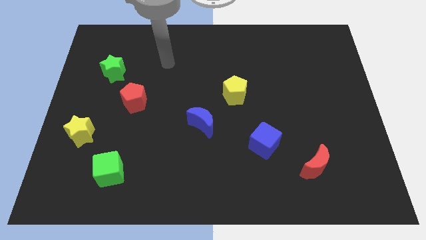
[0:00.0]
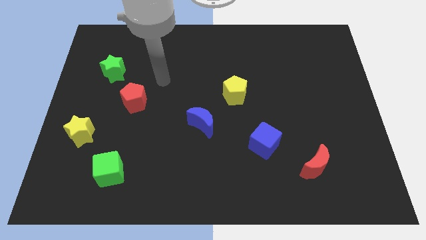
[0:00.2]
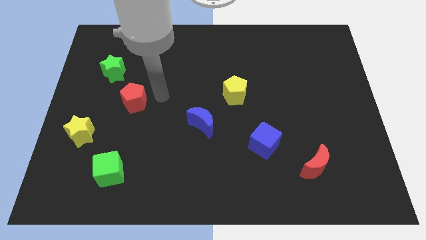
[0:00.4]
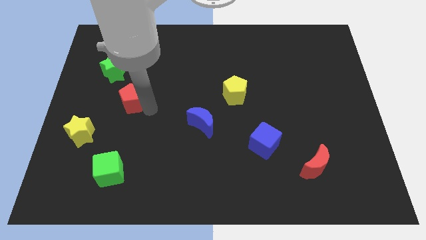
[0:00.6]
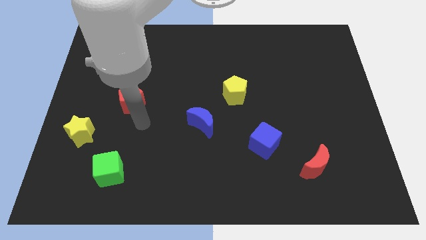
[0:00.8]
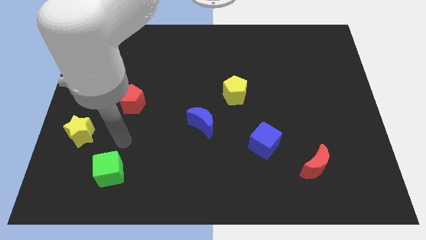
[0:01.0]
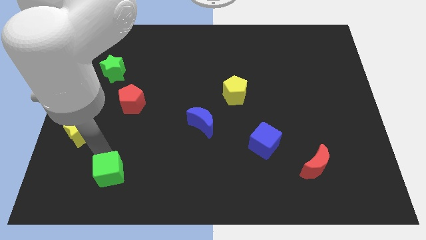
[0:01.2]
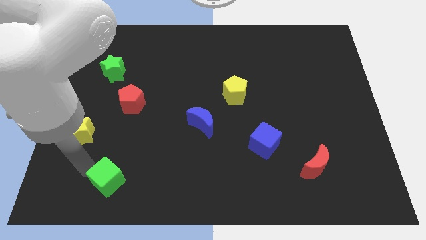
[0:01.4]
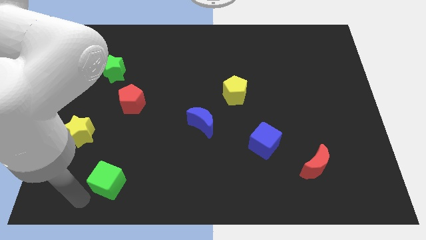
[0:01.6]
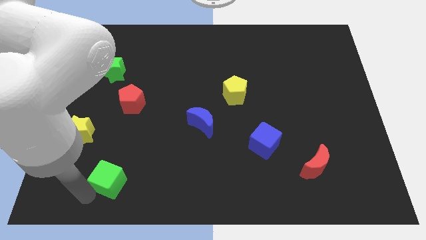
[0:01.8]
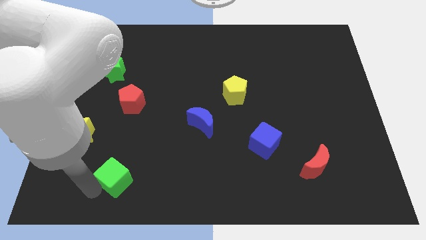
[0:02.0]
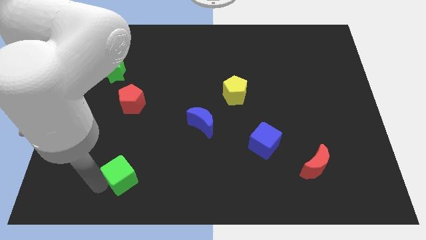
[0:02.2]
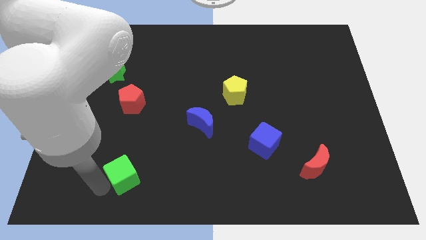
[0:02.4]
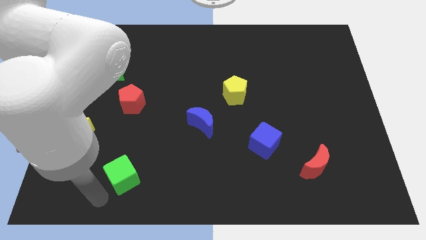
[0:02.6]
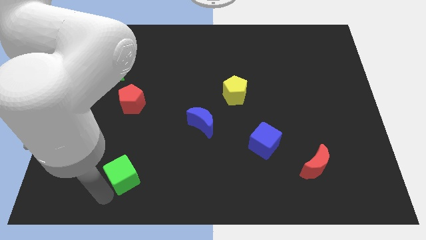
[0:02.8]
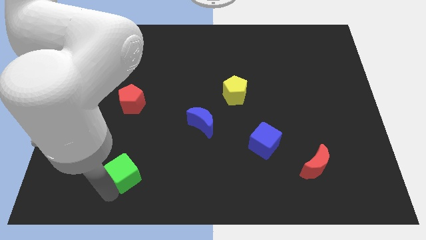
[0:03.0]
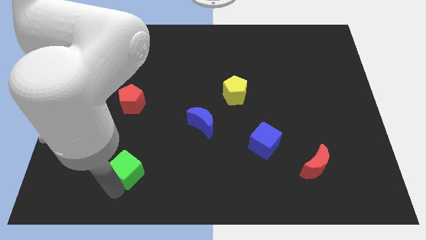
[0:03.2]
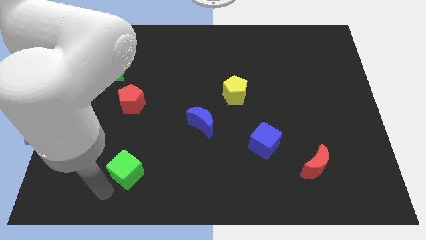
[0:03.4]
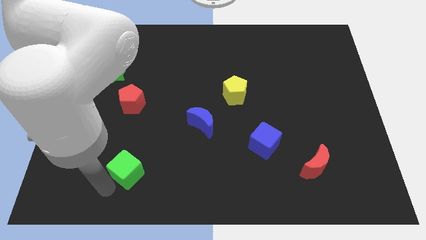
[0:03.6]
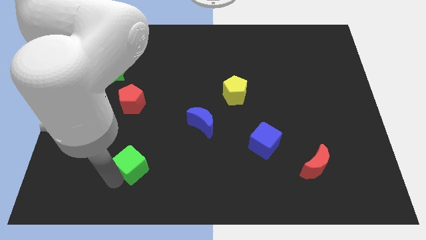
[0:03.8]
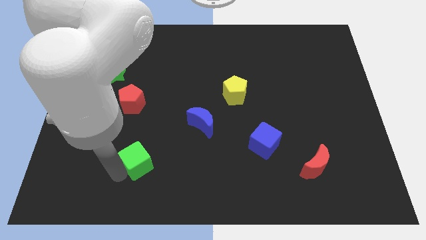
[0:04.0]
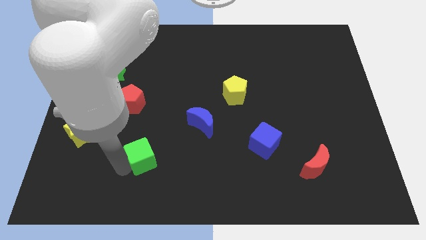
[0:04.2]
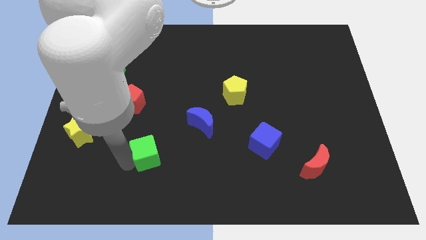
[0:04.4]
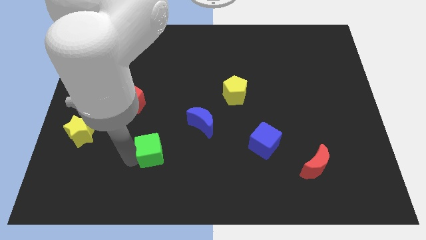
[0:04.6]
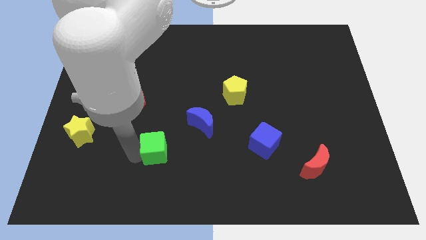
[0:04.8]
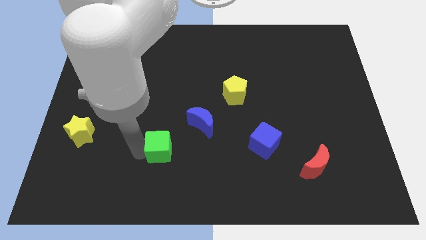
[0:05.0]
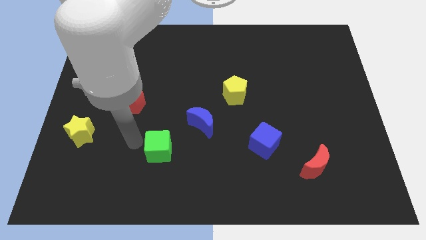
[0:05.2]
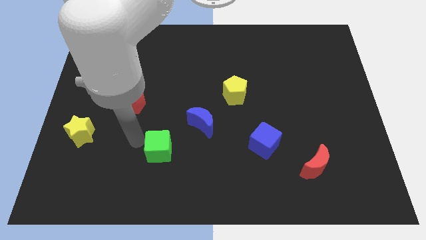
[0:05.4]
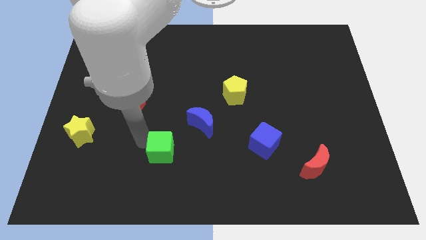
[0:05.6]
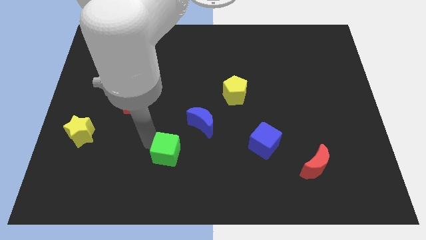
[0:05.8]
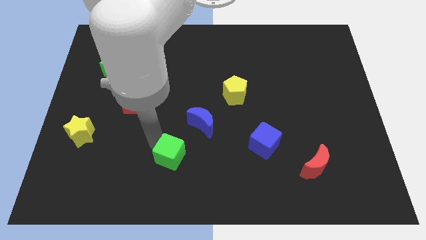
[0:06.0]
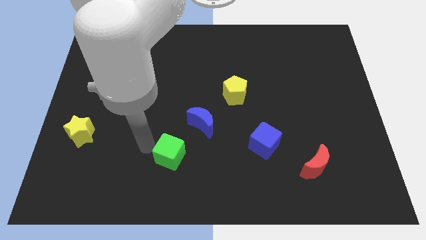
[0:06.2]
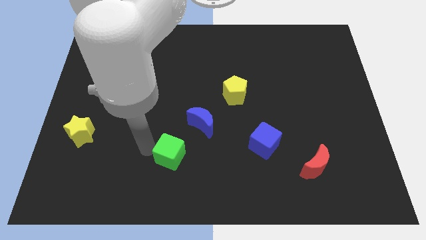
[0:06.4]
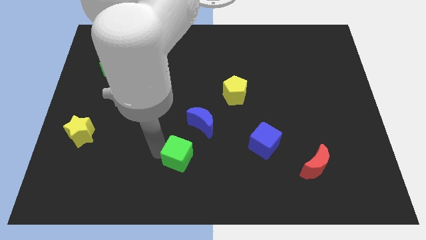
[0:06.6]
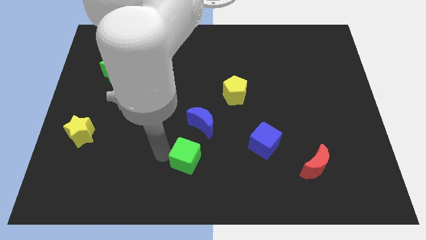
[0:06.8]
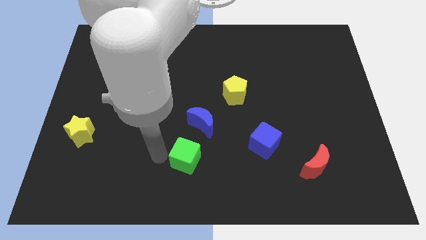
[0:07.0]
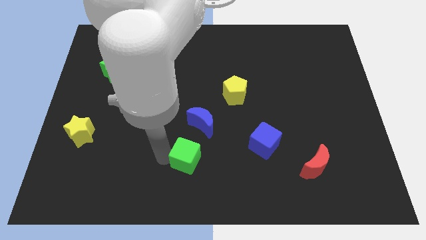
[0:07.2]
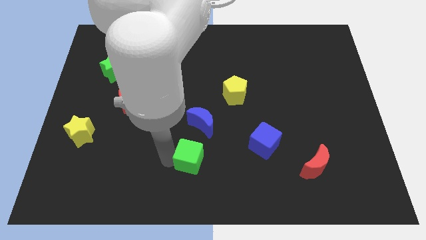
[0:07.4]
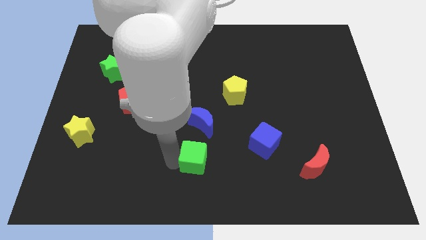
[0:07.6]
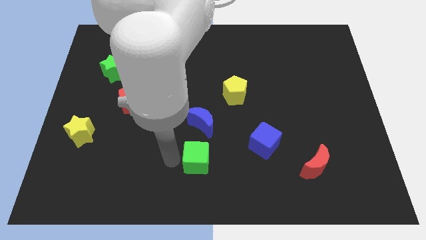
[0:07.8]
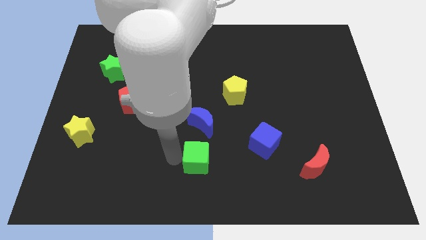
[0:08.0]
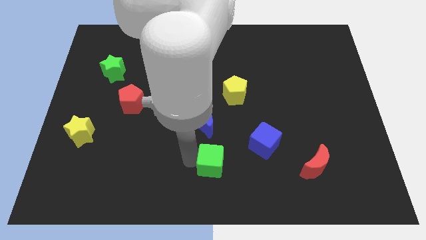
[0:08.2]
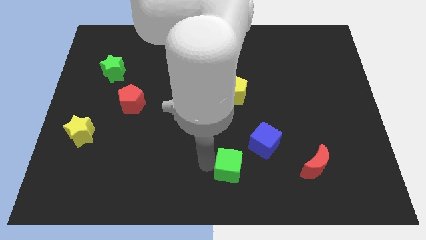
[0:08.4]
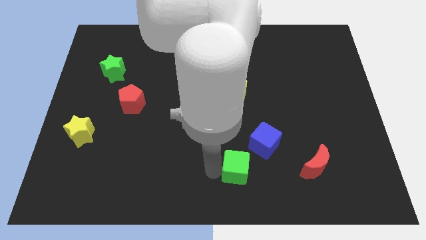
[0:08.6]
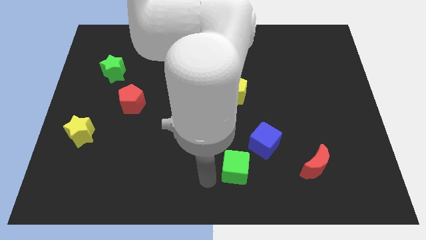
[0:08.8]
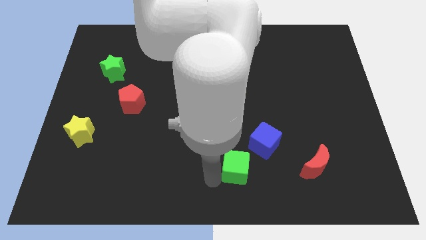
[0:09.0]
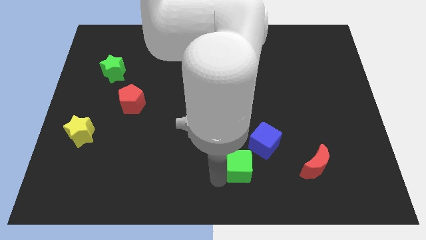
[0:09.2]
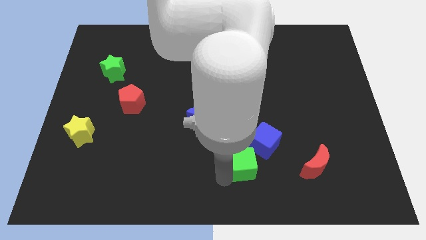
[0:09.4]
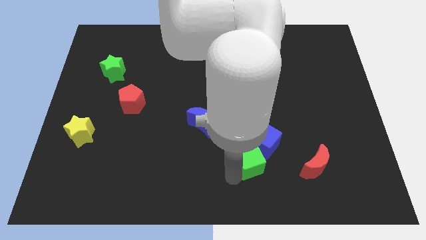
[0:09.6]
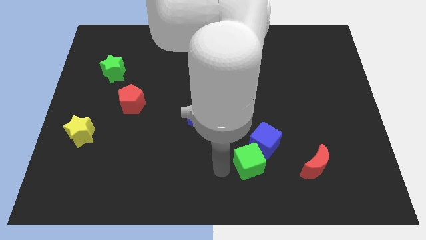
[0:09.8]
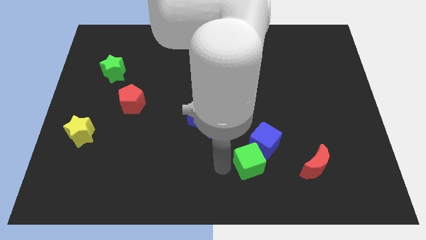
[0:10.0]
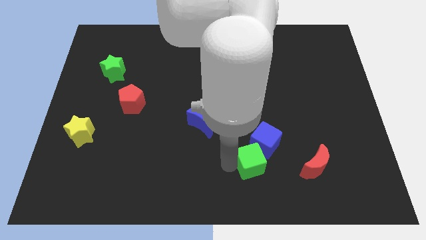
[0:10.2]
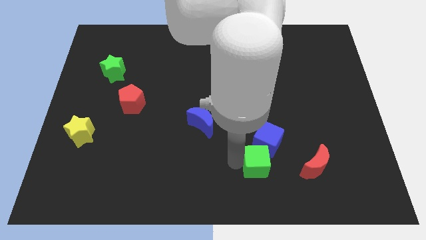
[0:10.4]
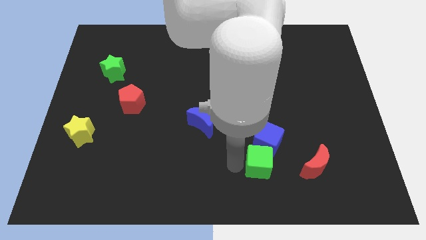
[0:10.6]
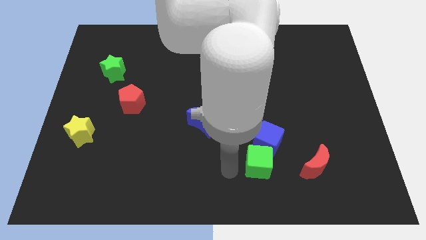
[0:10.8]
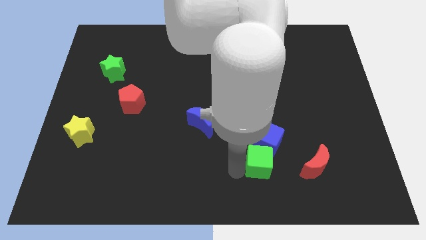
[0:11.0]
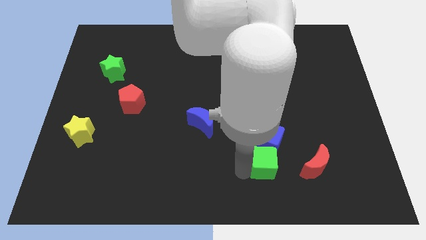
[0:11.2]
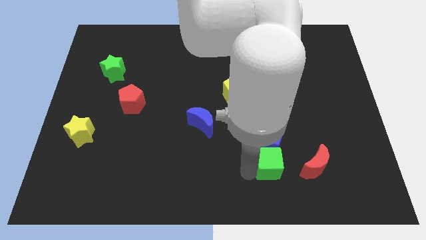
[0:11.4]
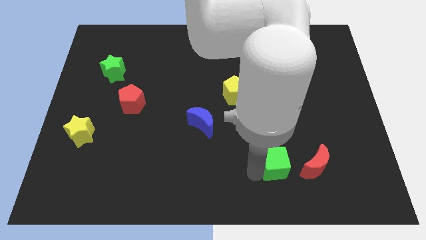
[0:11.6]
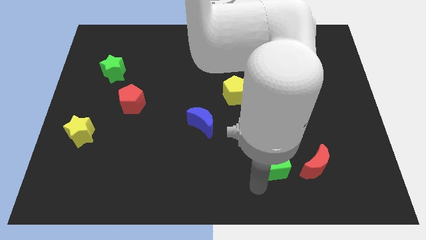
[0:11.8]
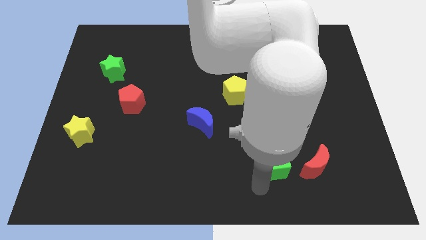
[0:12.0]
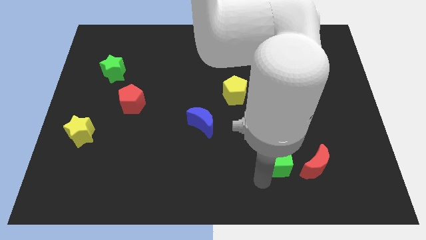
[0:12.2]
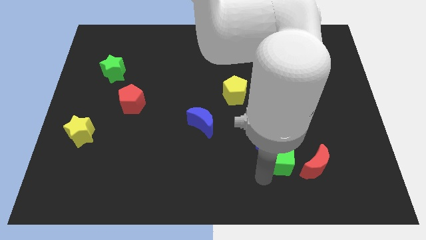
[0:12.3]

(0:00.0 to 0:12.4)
move the green cube diagonally up and to the left of the red moon

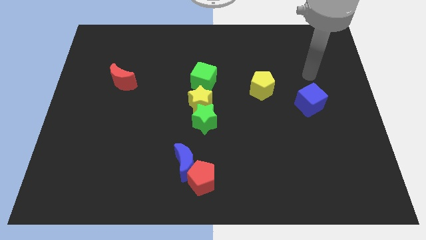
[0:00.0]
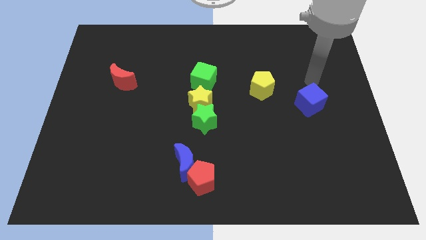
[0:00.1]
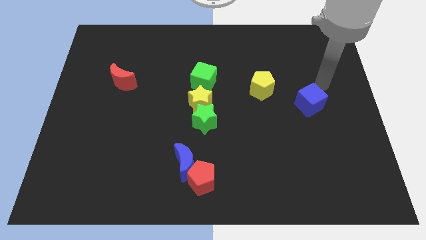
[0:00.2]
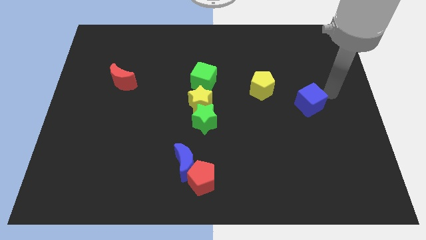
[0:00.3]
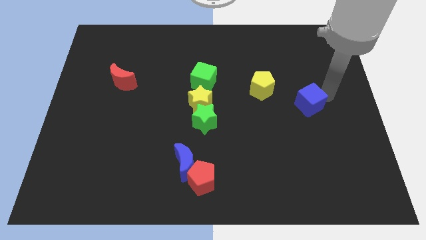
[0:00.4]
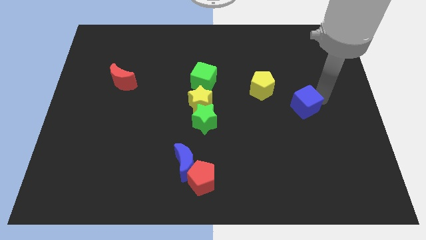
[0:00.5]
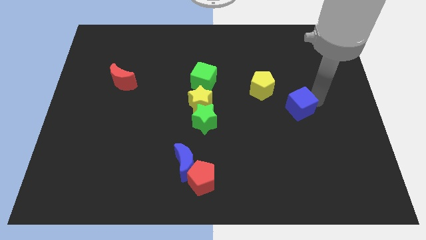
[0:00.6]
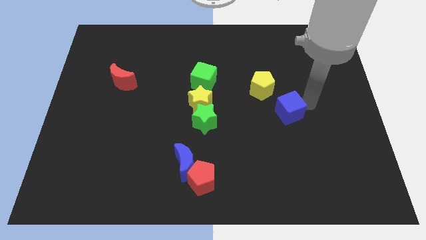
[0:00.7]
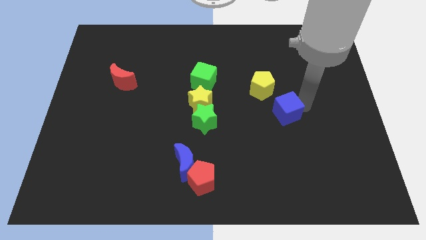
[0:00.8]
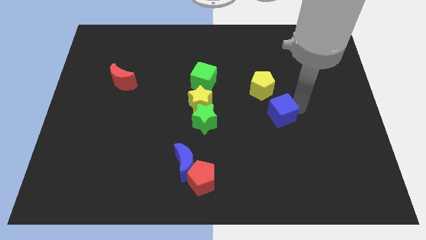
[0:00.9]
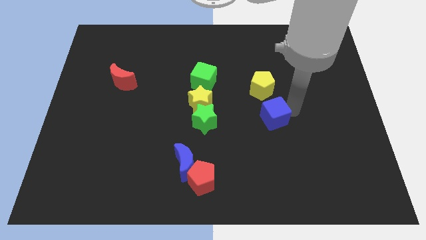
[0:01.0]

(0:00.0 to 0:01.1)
push the blue cube to the right of the green star
